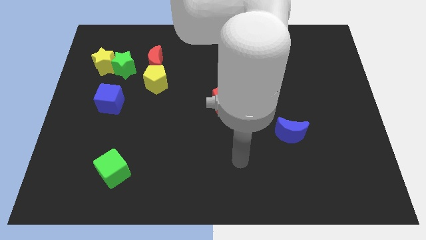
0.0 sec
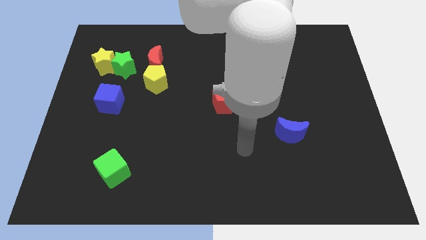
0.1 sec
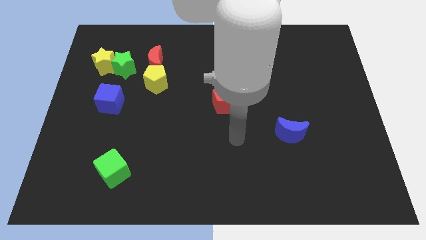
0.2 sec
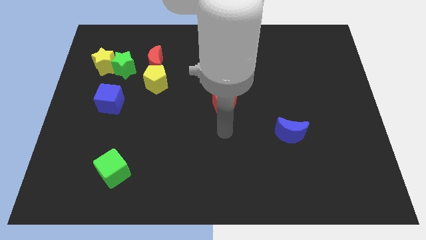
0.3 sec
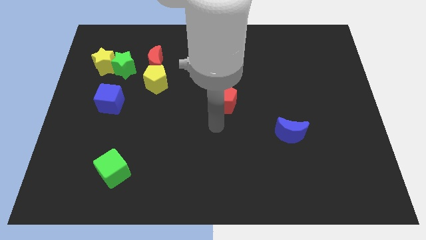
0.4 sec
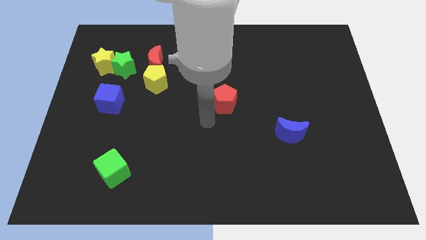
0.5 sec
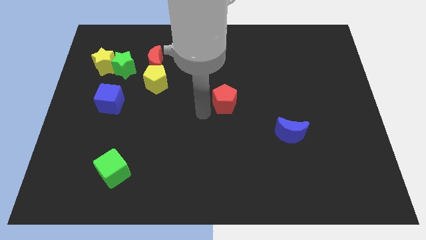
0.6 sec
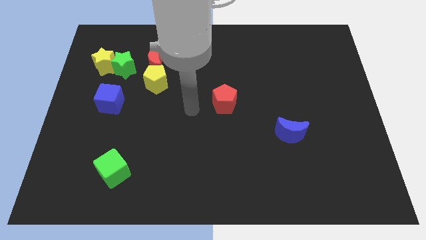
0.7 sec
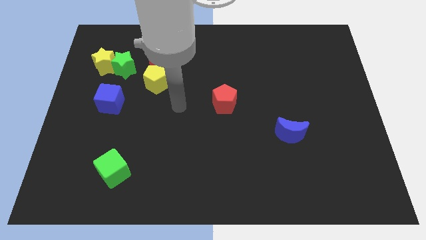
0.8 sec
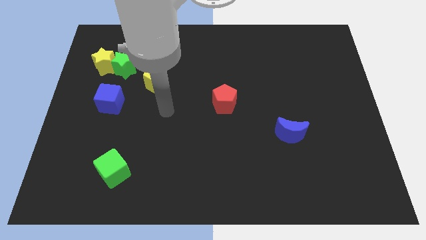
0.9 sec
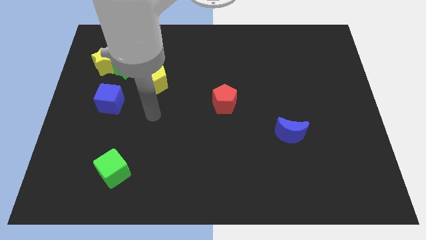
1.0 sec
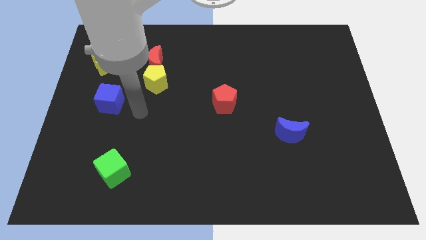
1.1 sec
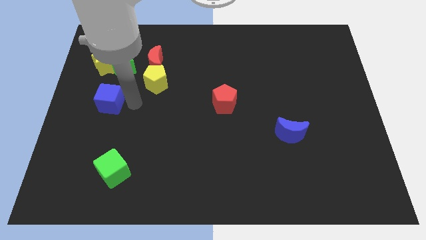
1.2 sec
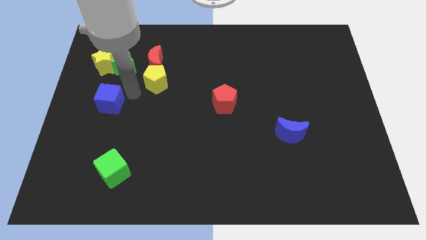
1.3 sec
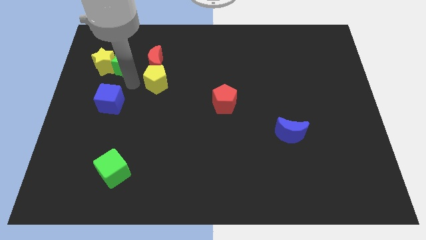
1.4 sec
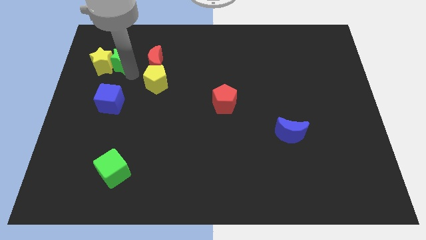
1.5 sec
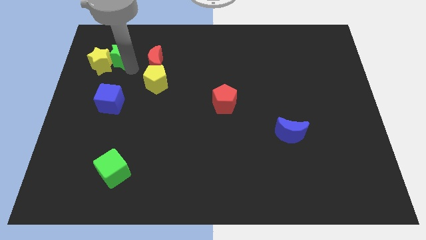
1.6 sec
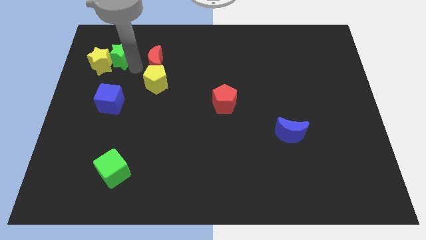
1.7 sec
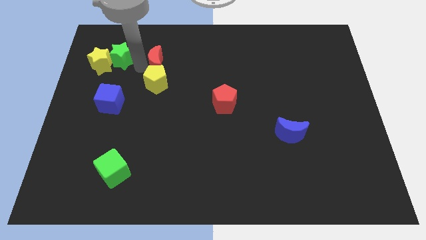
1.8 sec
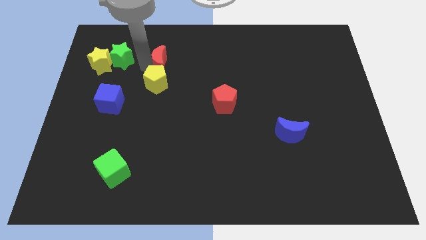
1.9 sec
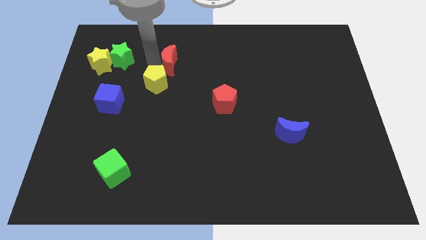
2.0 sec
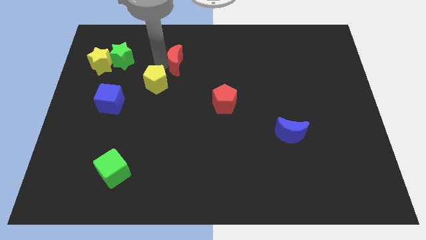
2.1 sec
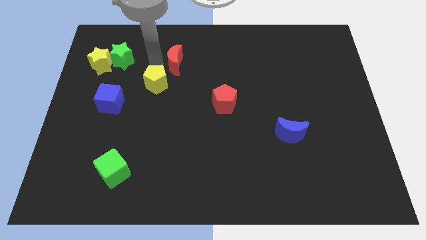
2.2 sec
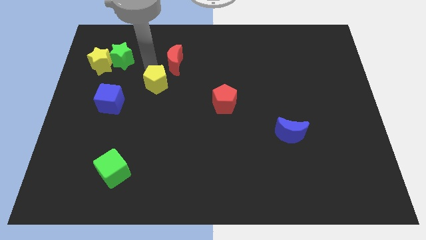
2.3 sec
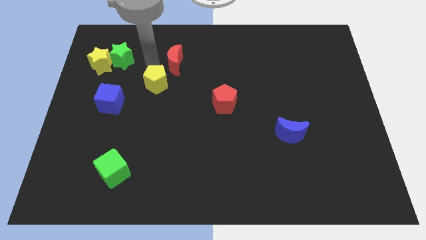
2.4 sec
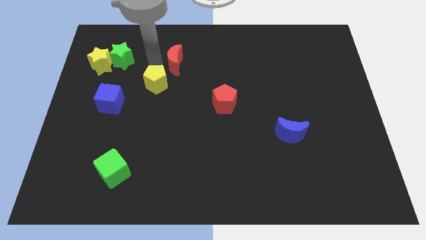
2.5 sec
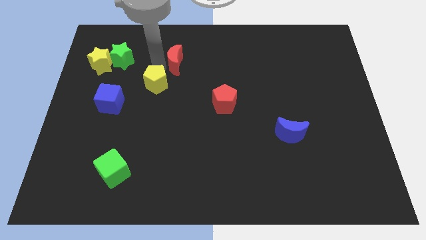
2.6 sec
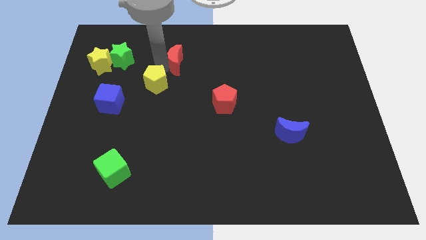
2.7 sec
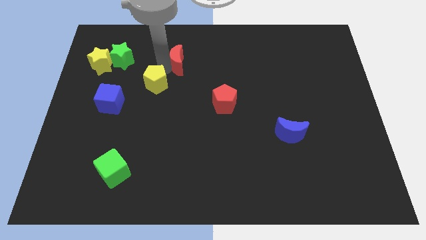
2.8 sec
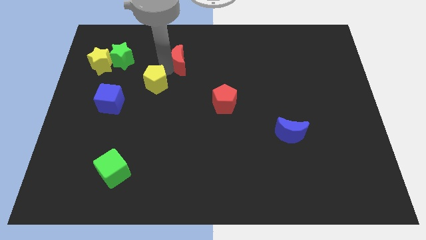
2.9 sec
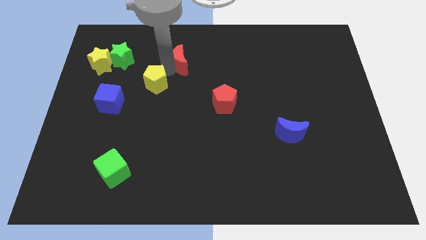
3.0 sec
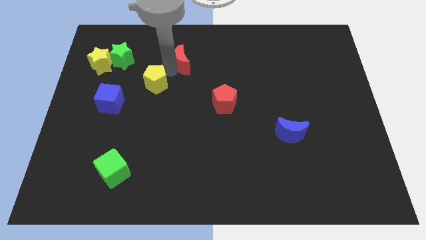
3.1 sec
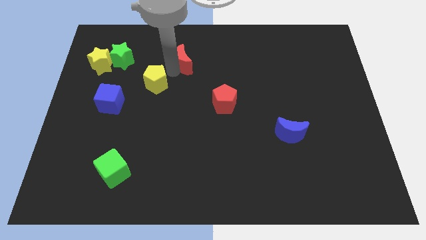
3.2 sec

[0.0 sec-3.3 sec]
slightly slide the red moon right

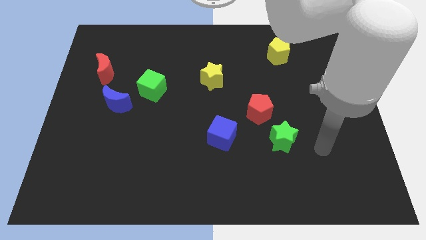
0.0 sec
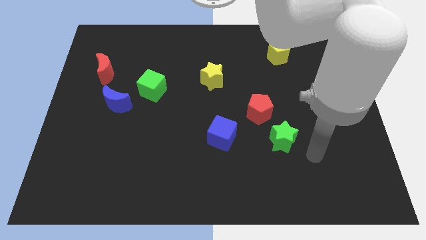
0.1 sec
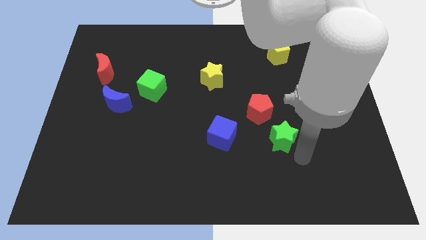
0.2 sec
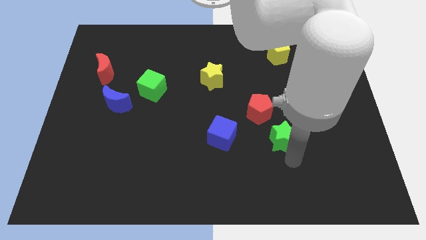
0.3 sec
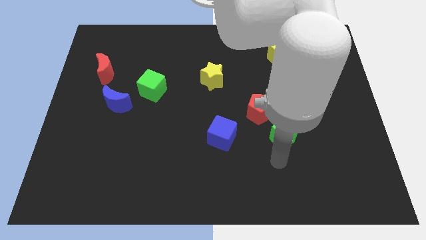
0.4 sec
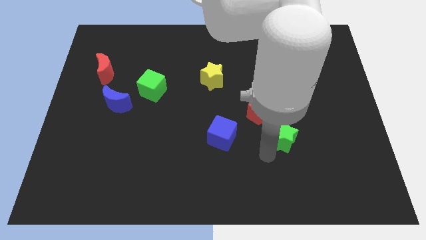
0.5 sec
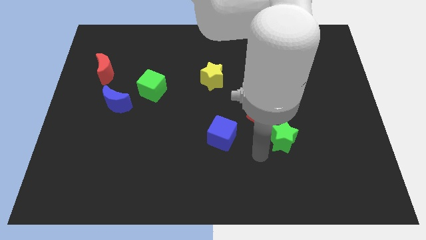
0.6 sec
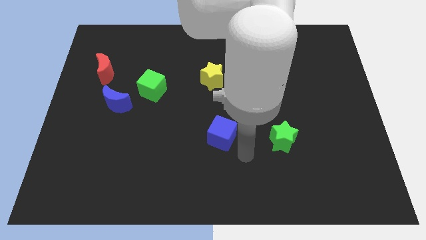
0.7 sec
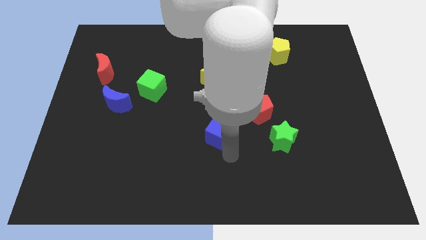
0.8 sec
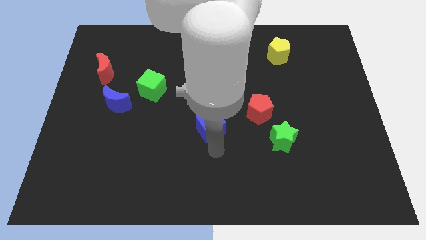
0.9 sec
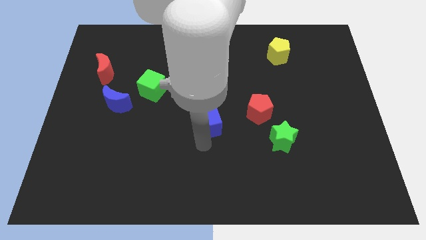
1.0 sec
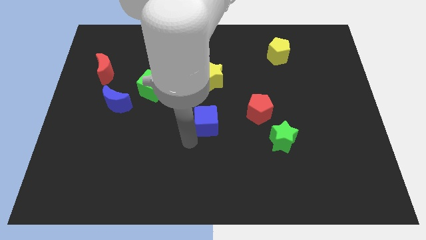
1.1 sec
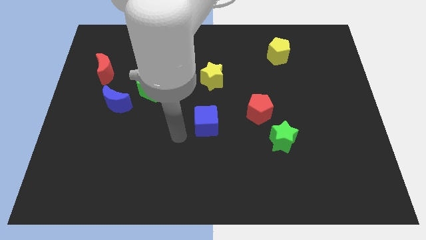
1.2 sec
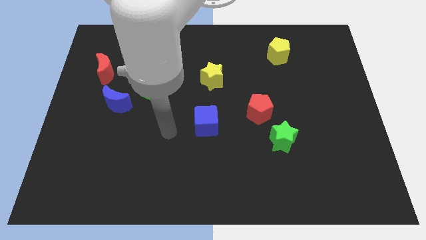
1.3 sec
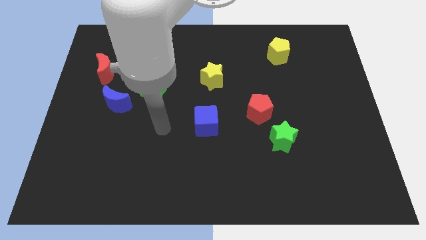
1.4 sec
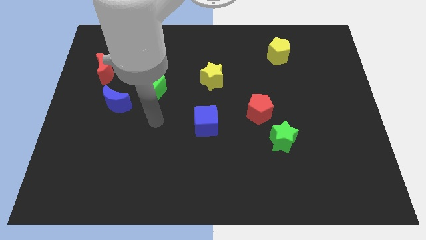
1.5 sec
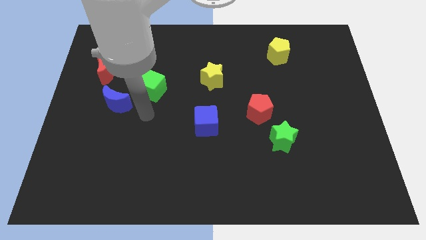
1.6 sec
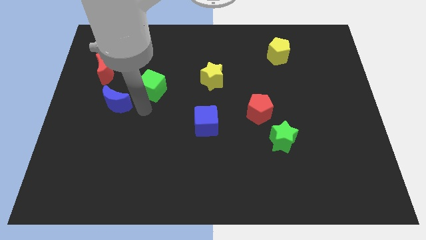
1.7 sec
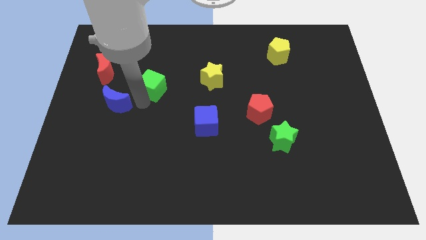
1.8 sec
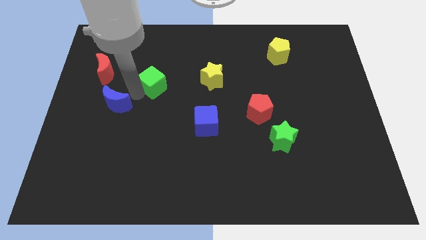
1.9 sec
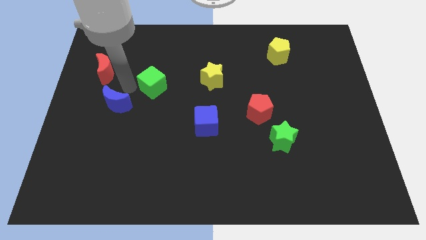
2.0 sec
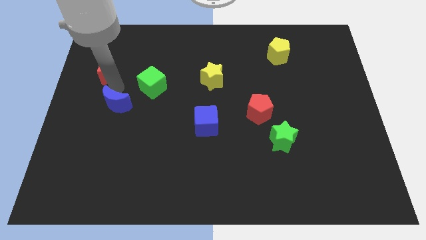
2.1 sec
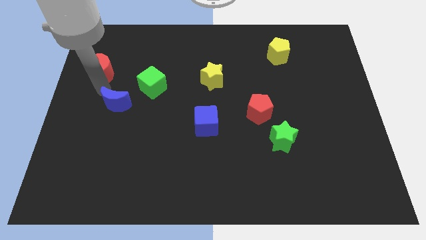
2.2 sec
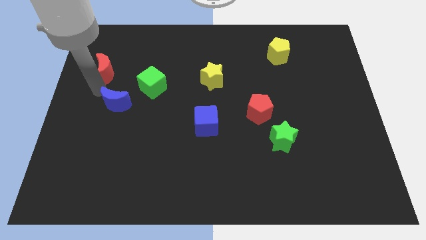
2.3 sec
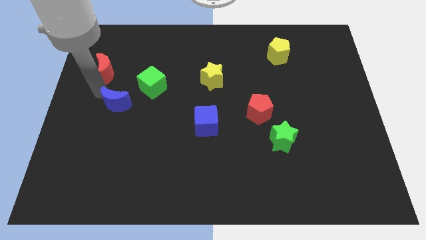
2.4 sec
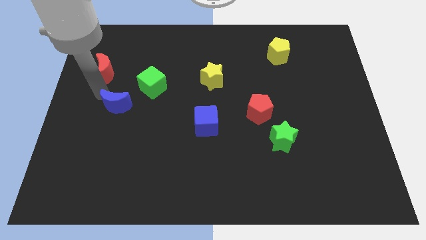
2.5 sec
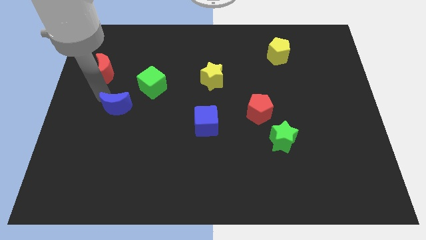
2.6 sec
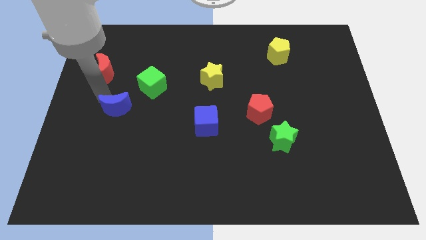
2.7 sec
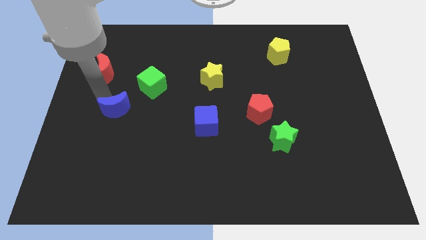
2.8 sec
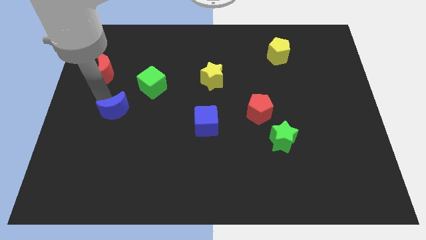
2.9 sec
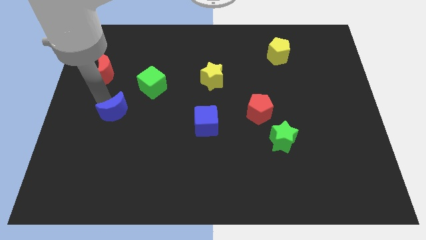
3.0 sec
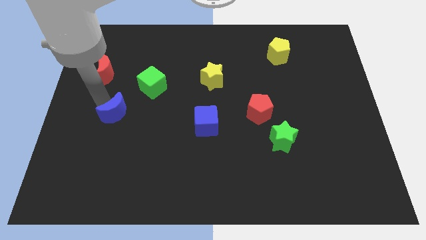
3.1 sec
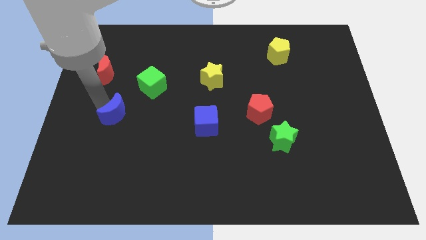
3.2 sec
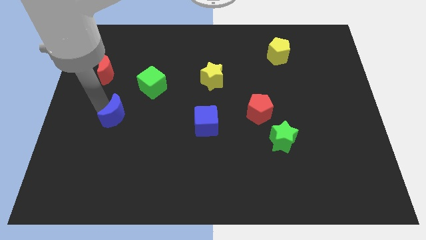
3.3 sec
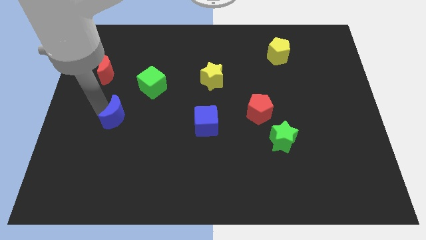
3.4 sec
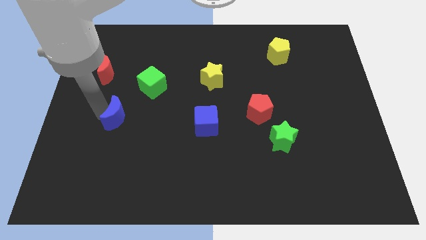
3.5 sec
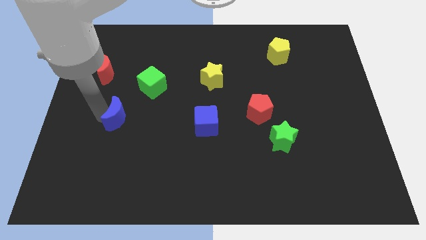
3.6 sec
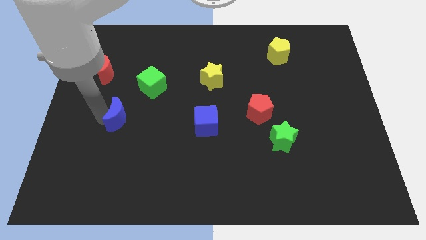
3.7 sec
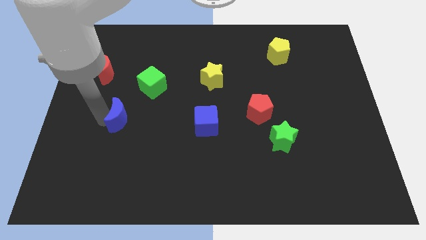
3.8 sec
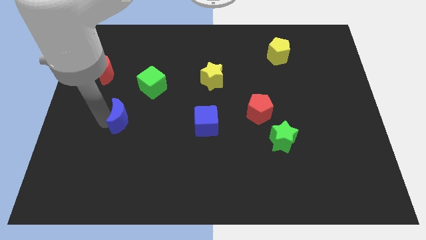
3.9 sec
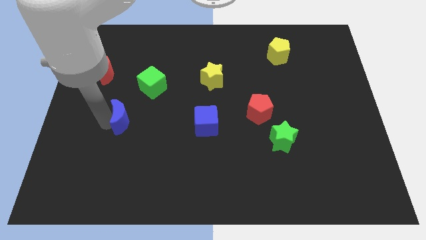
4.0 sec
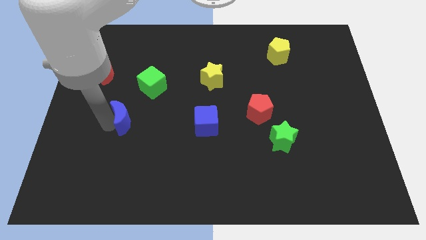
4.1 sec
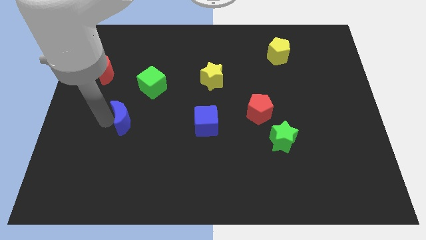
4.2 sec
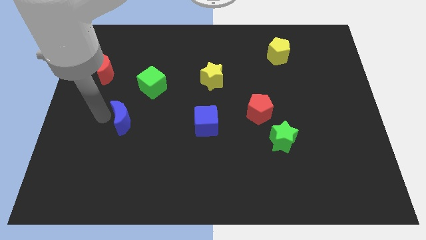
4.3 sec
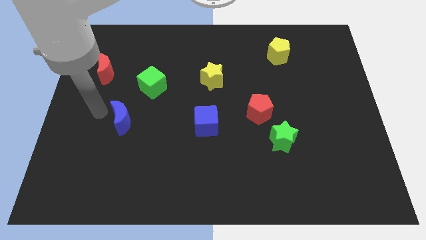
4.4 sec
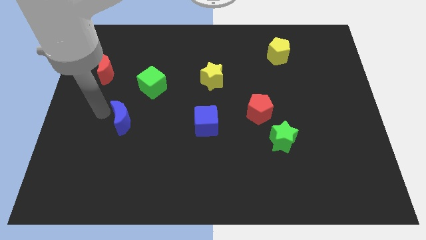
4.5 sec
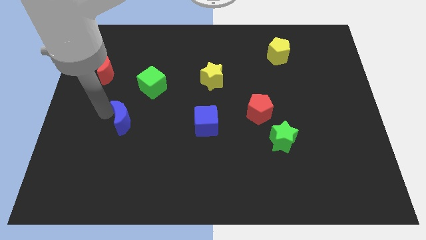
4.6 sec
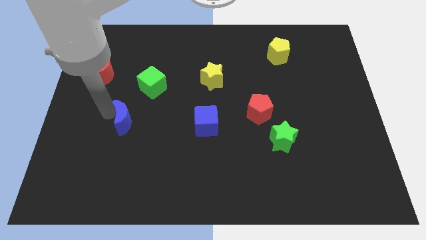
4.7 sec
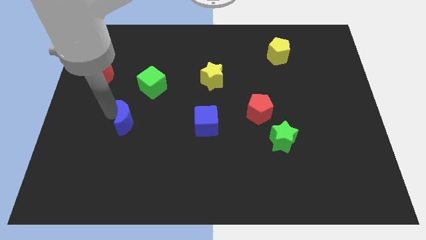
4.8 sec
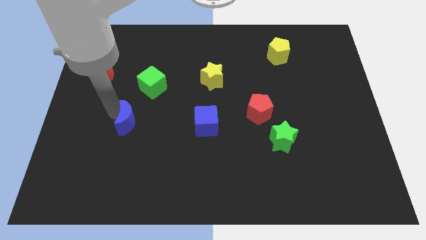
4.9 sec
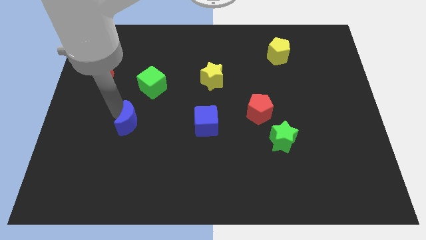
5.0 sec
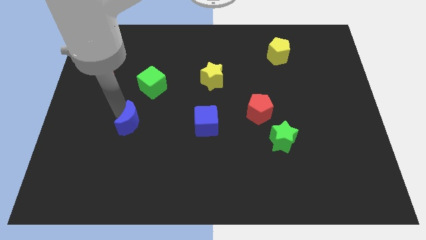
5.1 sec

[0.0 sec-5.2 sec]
push the blue moon a little bit down and right
